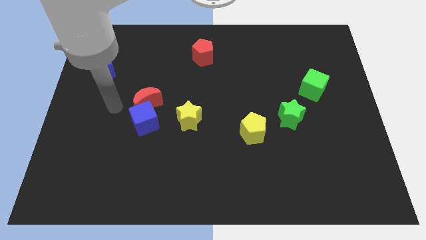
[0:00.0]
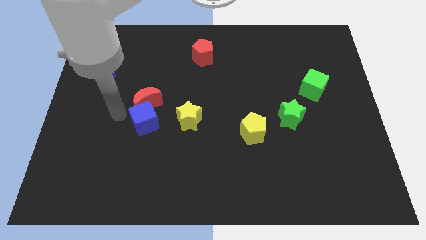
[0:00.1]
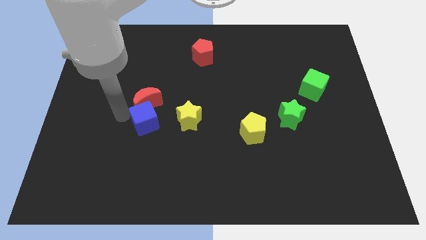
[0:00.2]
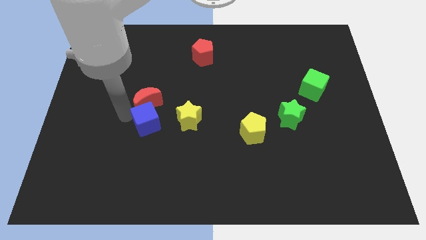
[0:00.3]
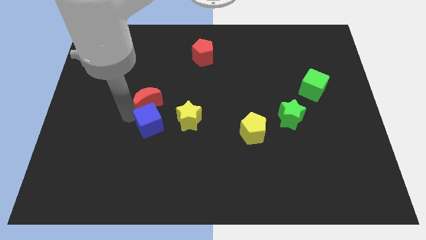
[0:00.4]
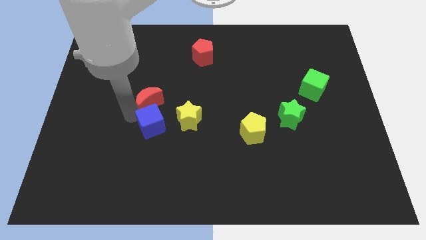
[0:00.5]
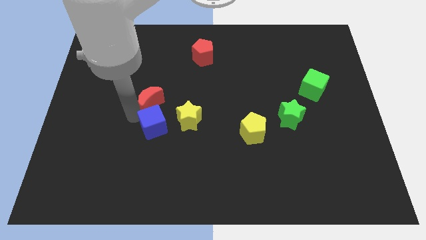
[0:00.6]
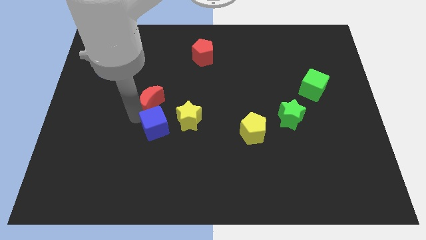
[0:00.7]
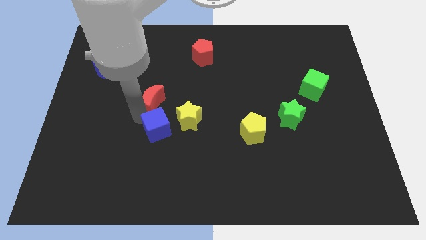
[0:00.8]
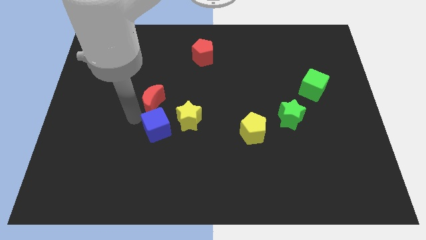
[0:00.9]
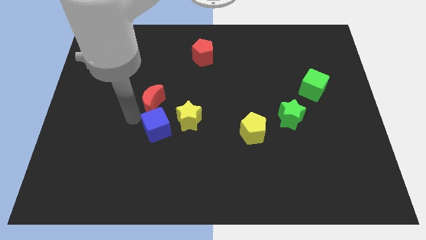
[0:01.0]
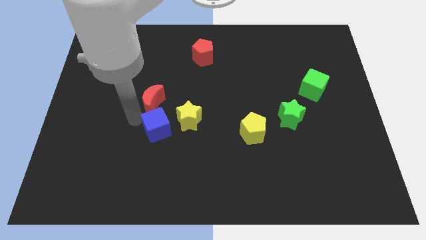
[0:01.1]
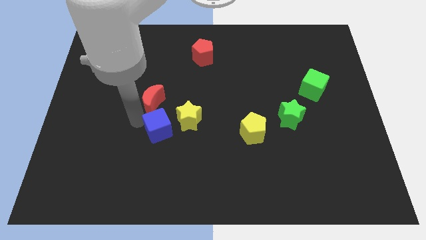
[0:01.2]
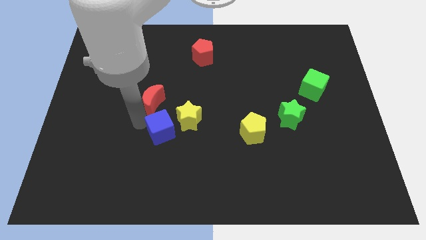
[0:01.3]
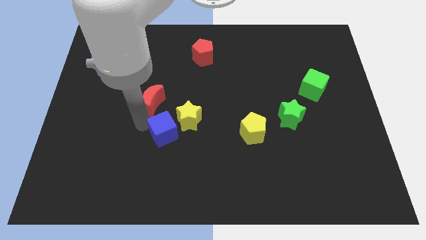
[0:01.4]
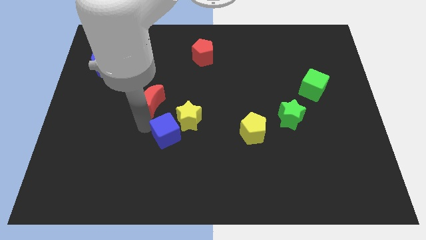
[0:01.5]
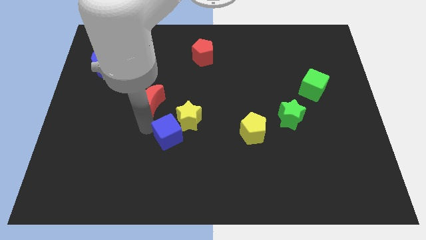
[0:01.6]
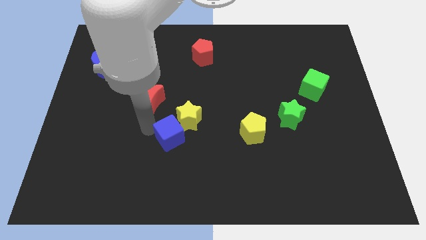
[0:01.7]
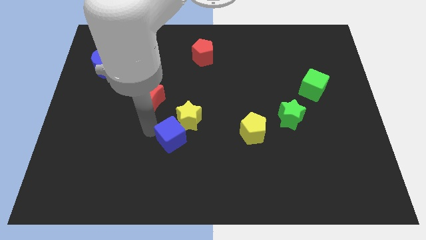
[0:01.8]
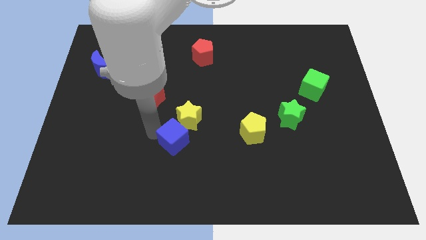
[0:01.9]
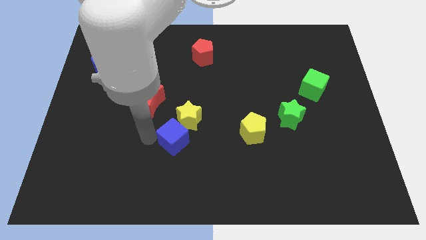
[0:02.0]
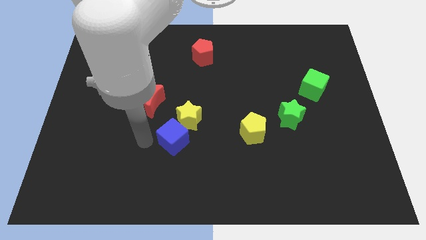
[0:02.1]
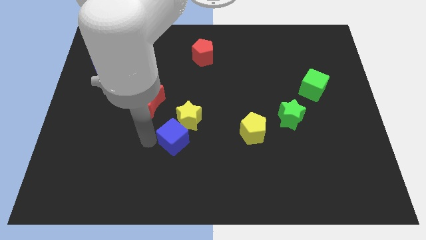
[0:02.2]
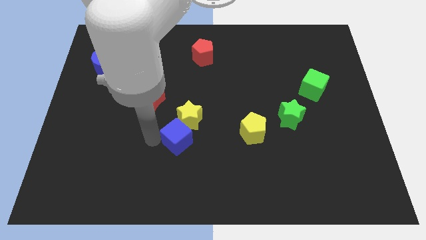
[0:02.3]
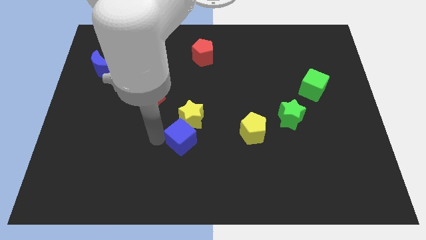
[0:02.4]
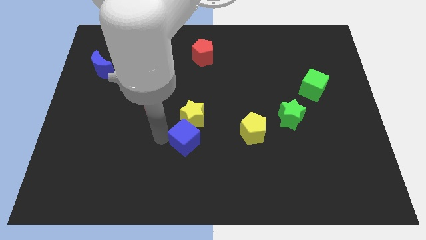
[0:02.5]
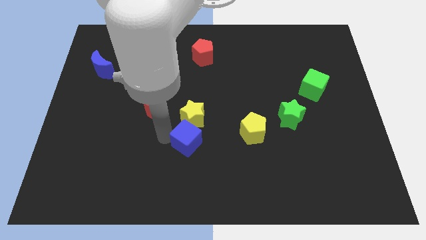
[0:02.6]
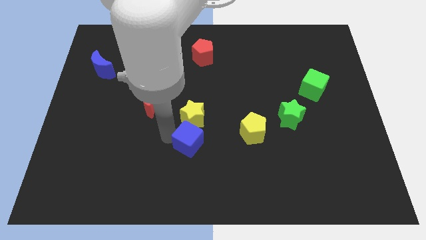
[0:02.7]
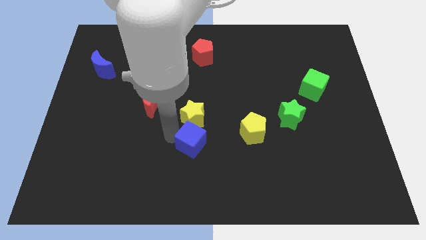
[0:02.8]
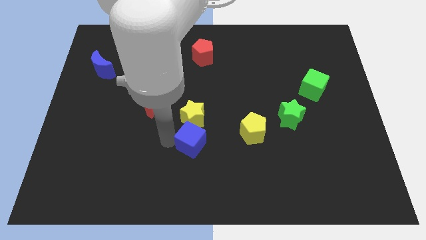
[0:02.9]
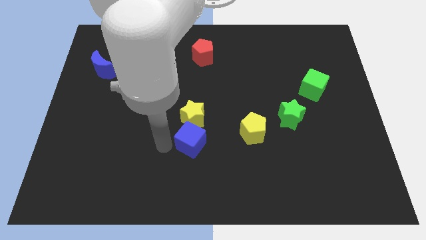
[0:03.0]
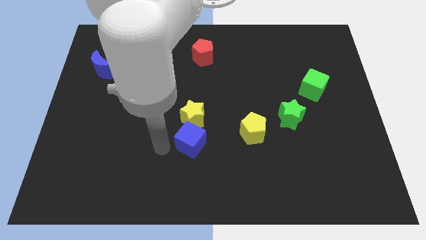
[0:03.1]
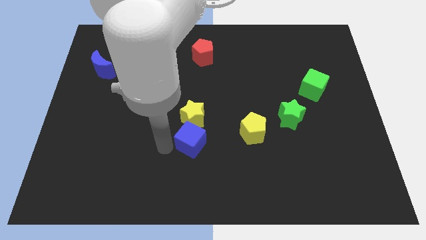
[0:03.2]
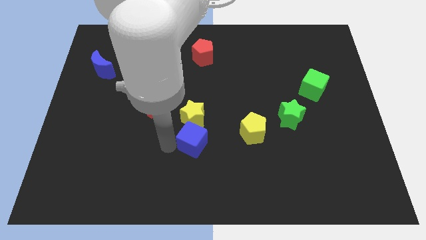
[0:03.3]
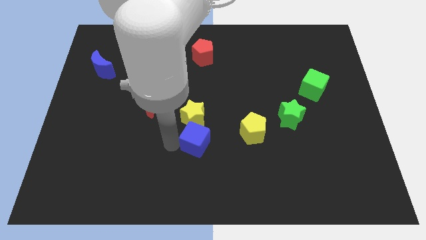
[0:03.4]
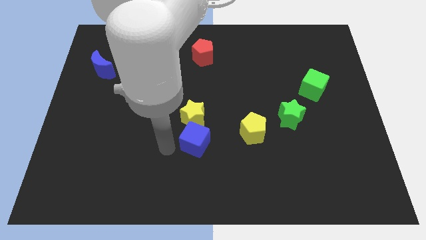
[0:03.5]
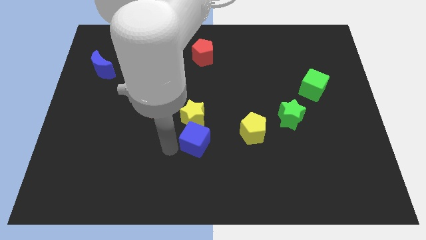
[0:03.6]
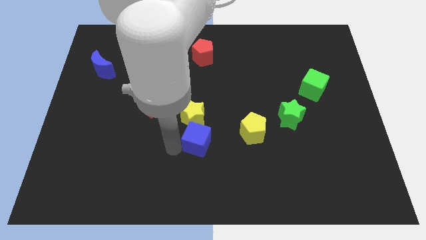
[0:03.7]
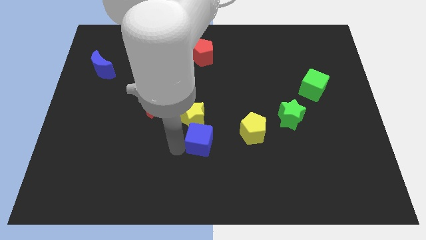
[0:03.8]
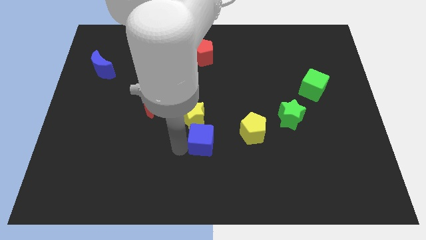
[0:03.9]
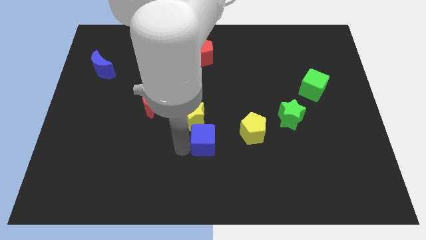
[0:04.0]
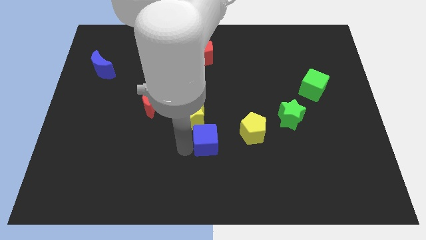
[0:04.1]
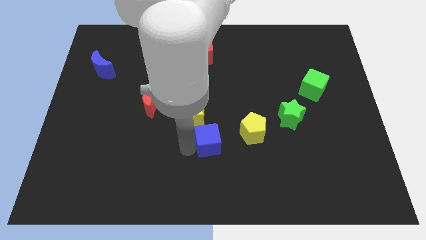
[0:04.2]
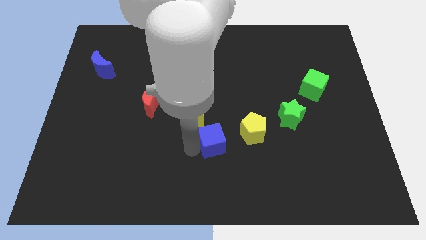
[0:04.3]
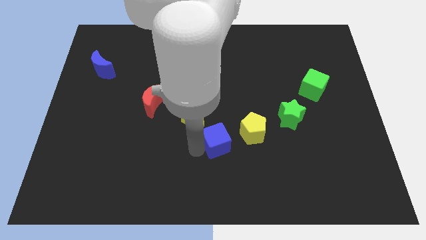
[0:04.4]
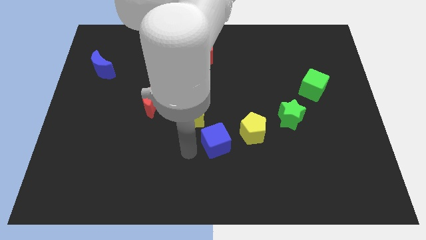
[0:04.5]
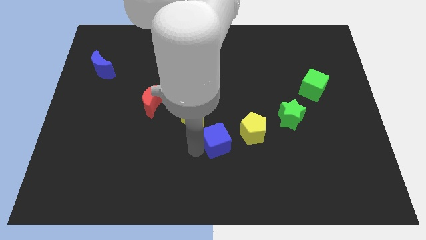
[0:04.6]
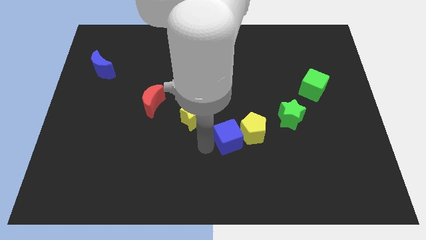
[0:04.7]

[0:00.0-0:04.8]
move the blue cube close to the yellow pentagon

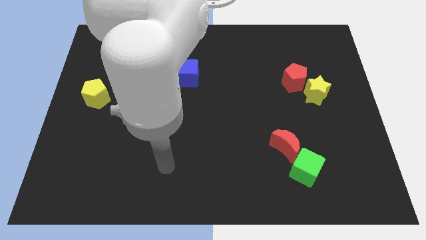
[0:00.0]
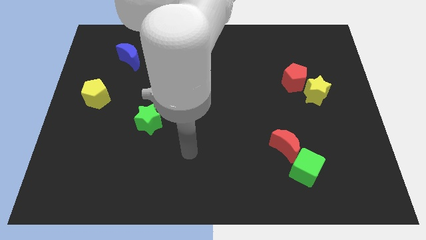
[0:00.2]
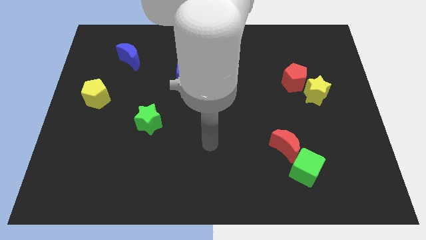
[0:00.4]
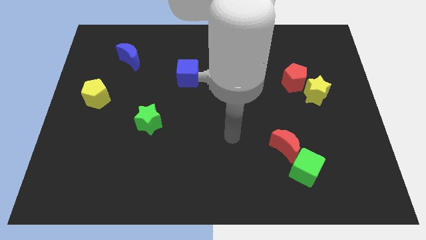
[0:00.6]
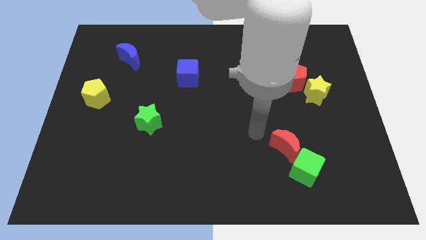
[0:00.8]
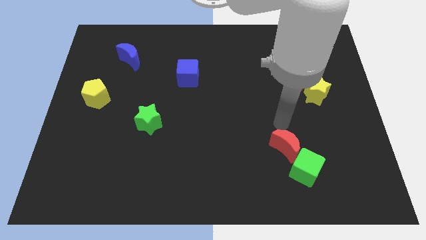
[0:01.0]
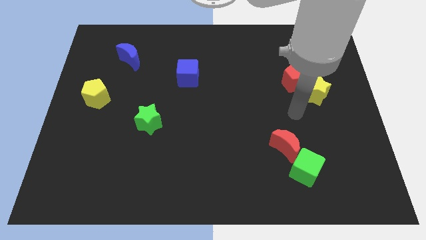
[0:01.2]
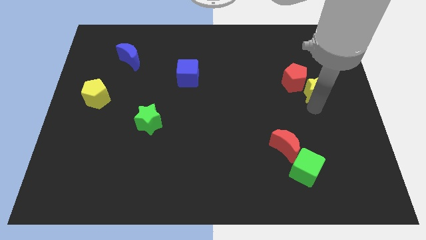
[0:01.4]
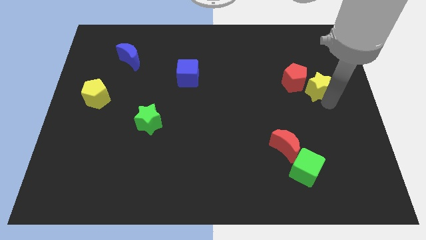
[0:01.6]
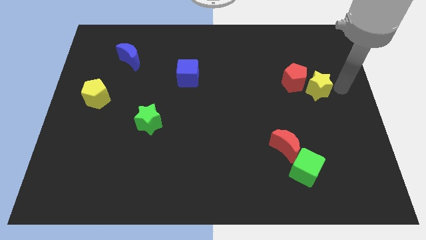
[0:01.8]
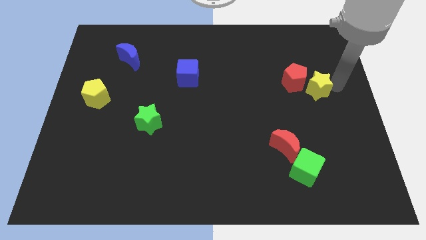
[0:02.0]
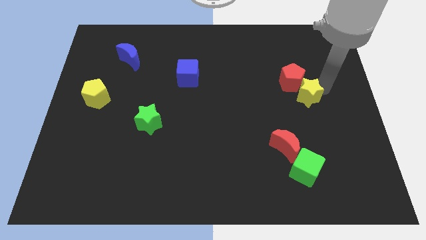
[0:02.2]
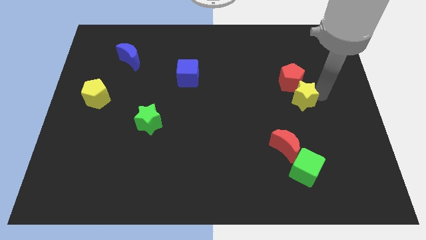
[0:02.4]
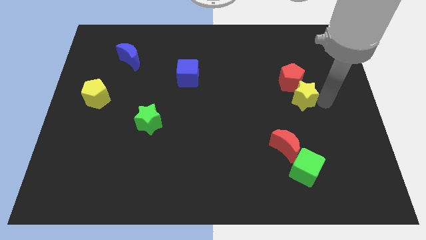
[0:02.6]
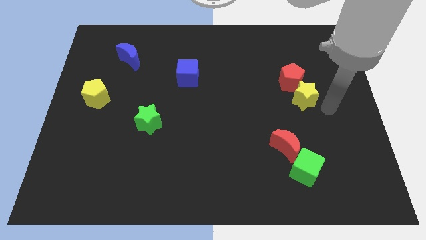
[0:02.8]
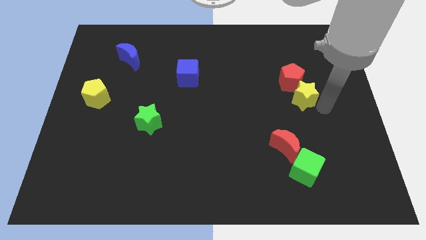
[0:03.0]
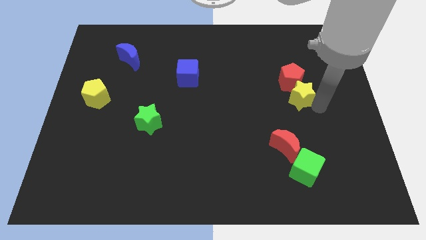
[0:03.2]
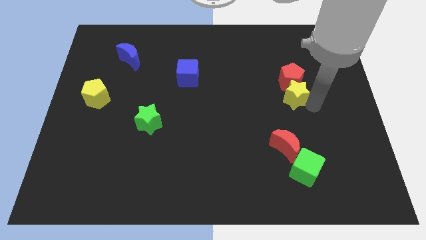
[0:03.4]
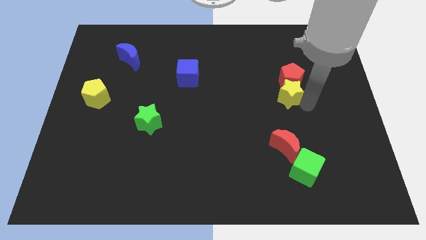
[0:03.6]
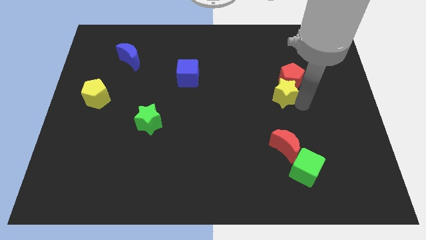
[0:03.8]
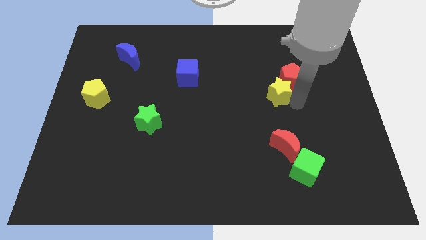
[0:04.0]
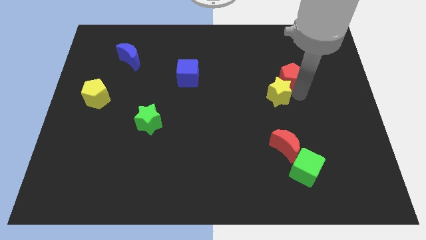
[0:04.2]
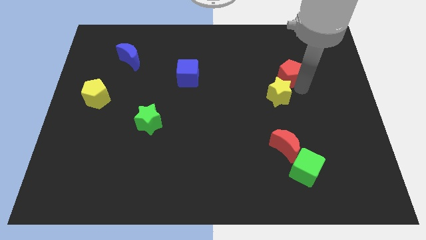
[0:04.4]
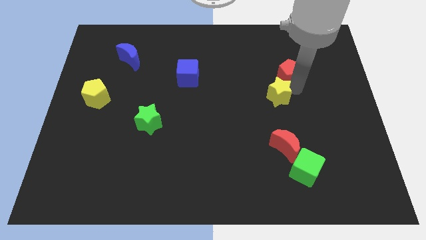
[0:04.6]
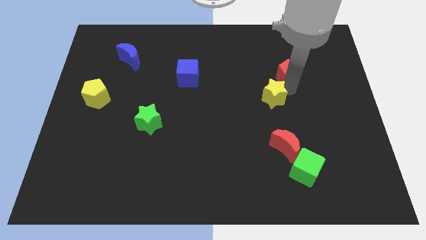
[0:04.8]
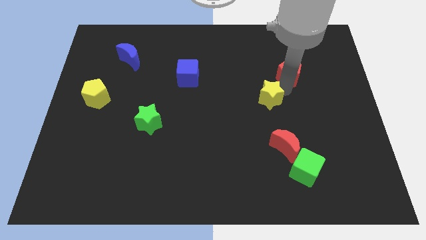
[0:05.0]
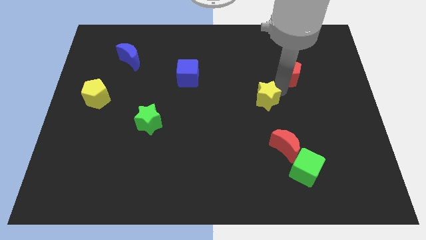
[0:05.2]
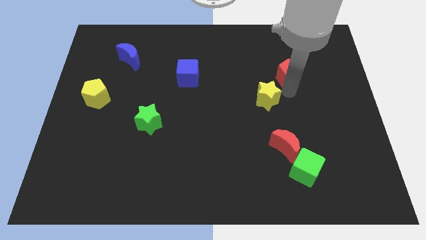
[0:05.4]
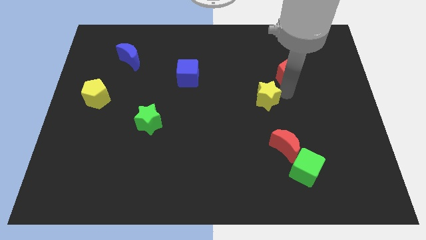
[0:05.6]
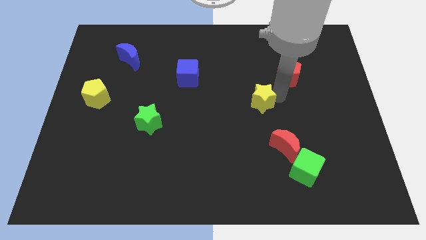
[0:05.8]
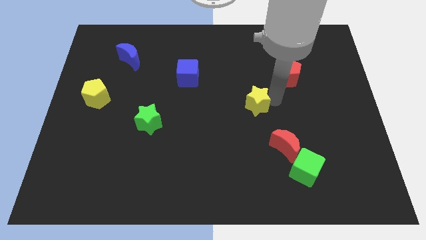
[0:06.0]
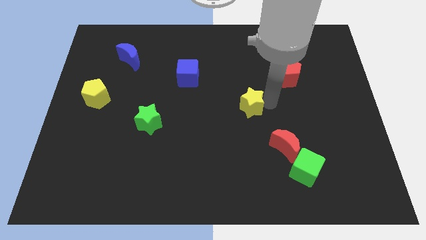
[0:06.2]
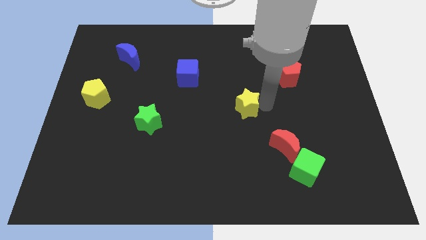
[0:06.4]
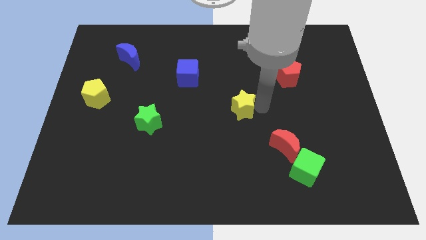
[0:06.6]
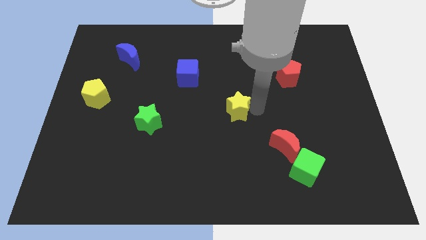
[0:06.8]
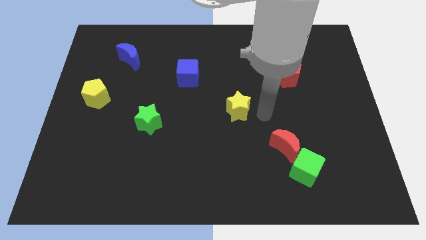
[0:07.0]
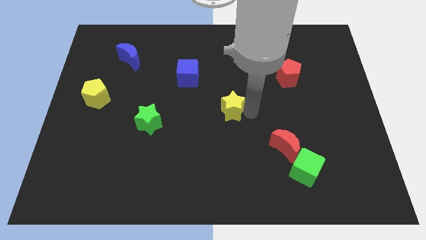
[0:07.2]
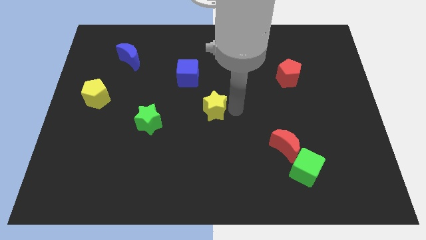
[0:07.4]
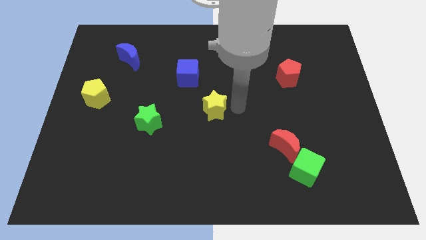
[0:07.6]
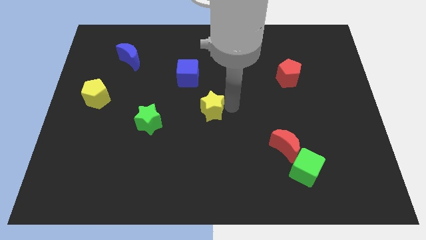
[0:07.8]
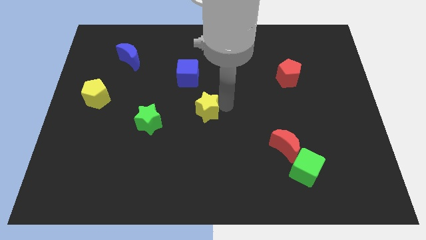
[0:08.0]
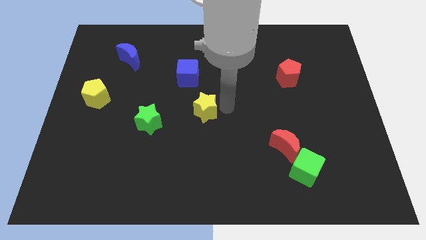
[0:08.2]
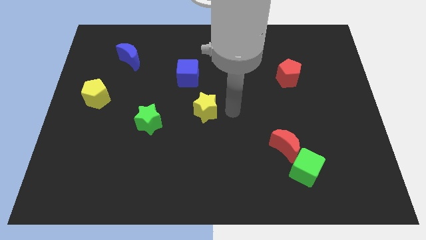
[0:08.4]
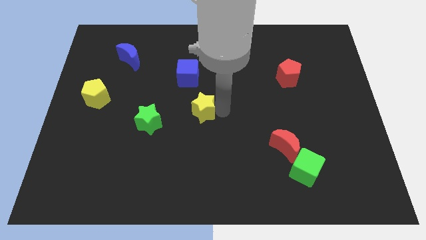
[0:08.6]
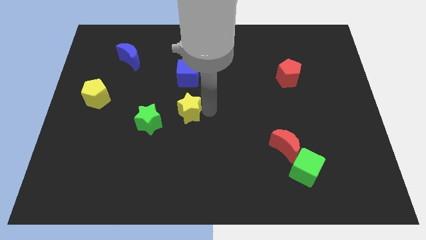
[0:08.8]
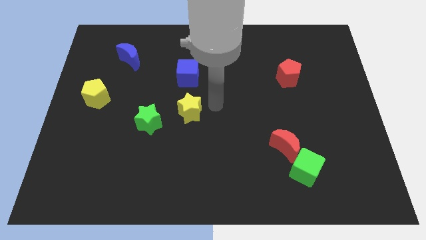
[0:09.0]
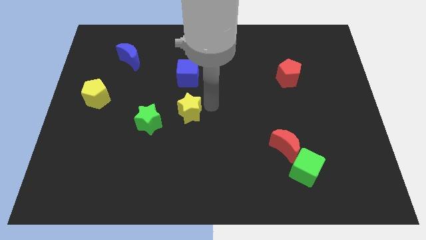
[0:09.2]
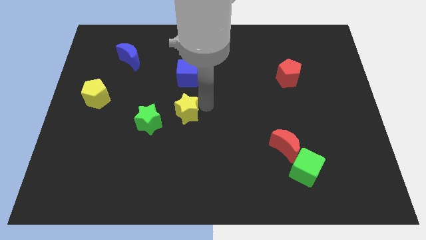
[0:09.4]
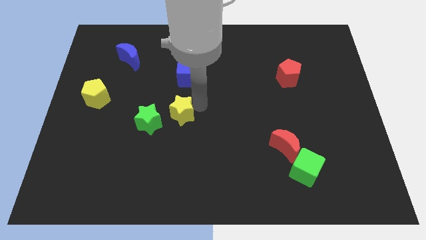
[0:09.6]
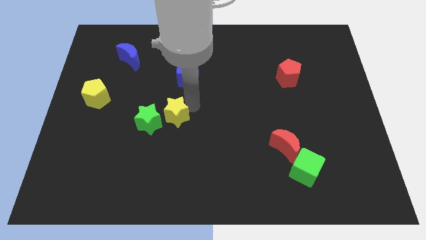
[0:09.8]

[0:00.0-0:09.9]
push the yellow star next to the green star
